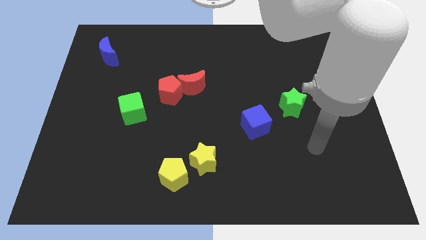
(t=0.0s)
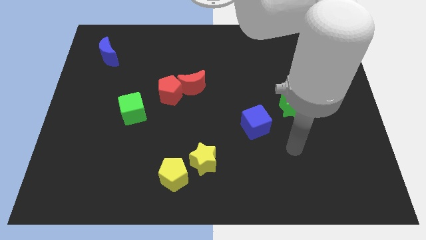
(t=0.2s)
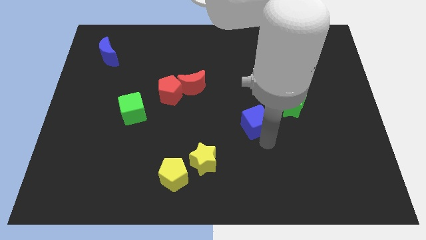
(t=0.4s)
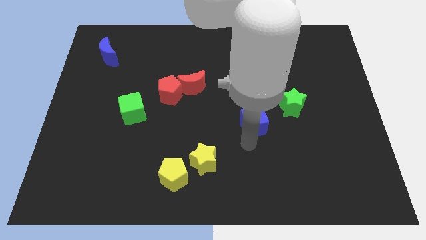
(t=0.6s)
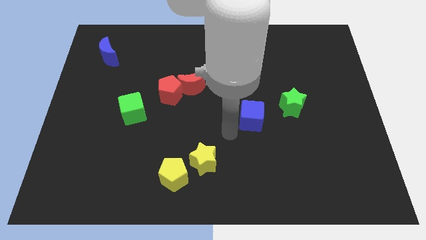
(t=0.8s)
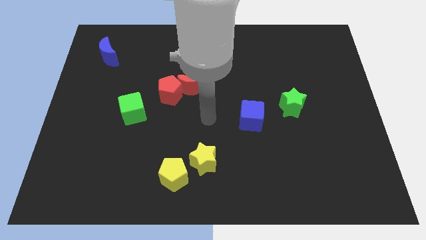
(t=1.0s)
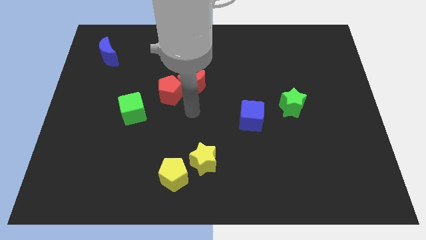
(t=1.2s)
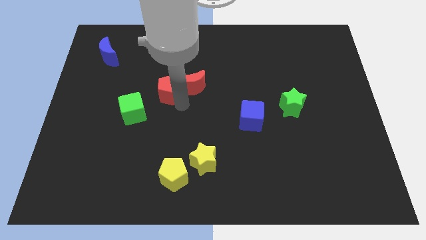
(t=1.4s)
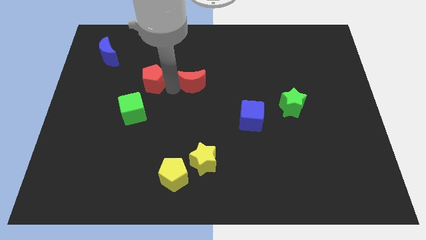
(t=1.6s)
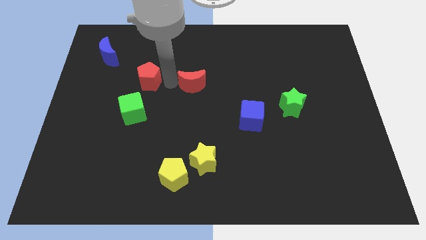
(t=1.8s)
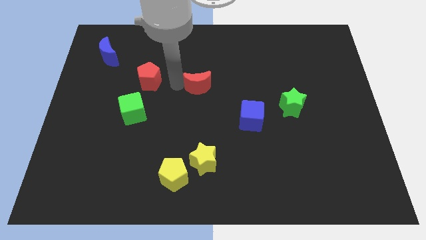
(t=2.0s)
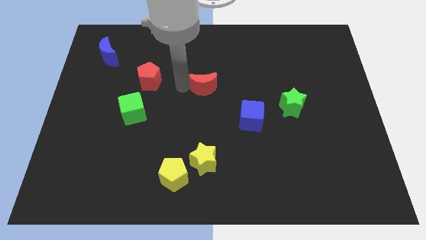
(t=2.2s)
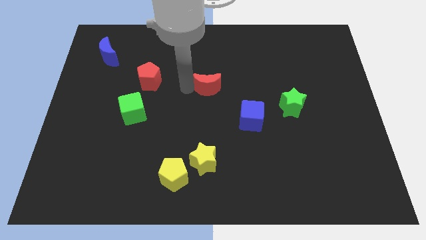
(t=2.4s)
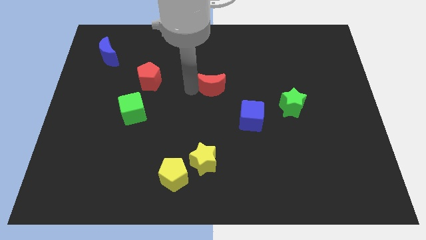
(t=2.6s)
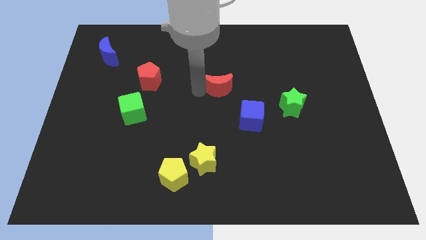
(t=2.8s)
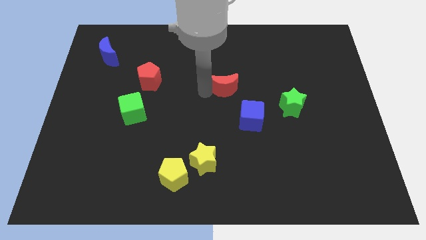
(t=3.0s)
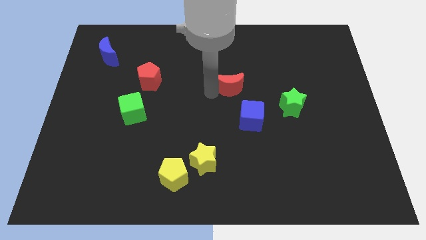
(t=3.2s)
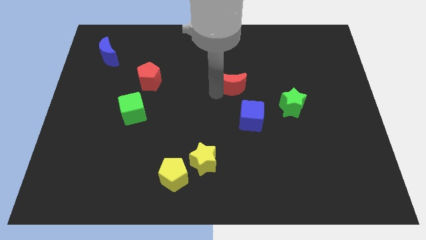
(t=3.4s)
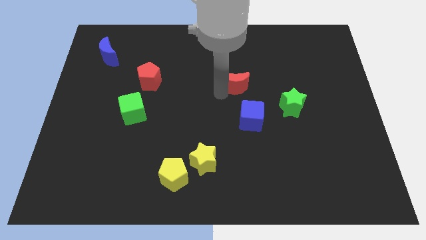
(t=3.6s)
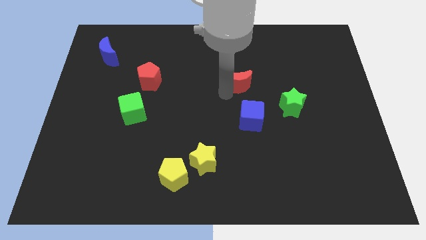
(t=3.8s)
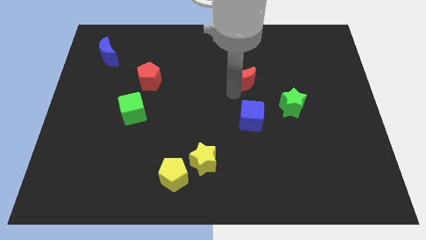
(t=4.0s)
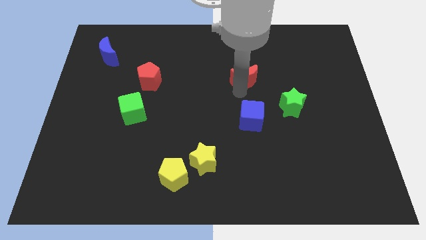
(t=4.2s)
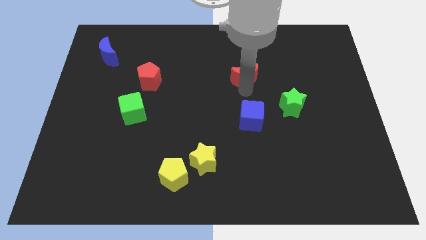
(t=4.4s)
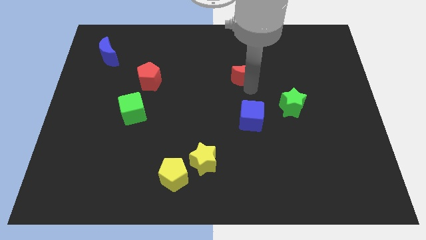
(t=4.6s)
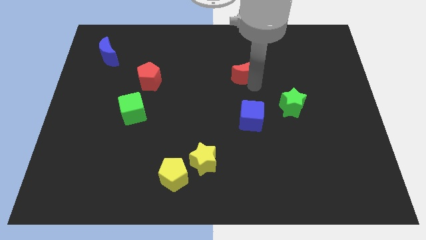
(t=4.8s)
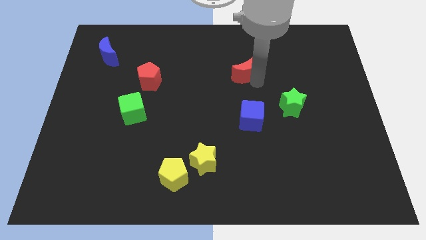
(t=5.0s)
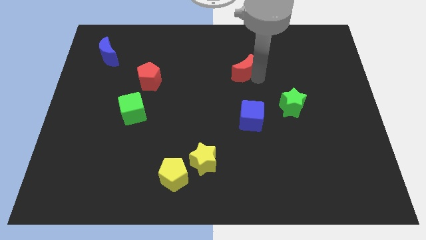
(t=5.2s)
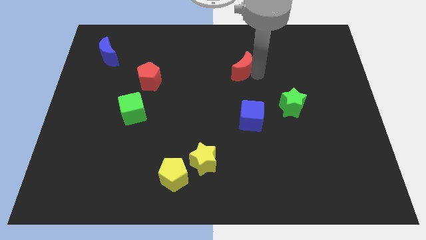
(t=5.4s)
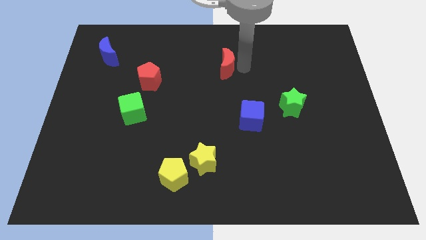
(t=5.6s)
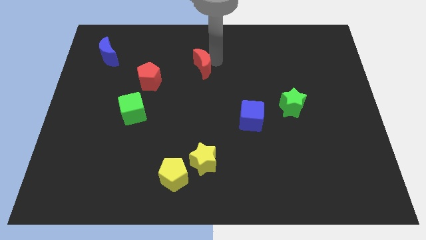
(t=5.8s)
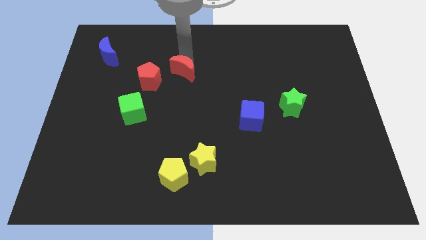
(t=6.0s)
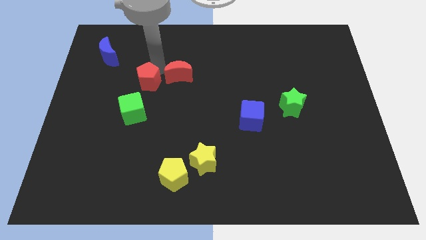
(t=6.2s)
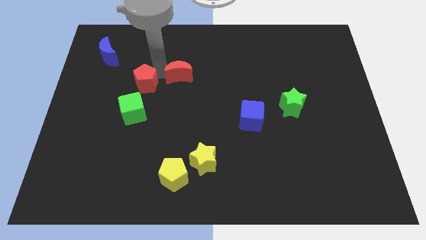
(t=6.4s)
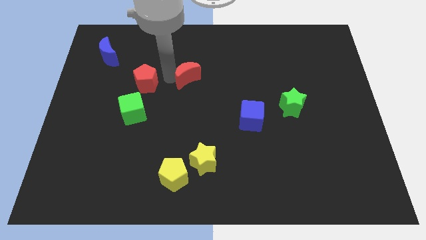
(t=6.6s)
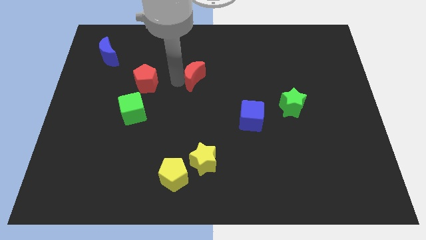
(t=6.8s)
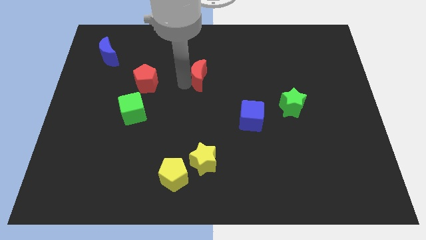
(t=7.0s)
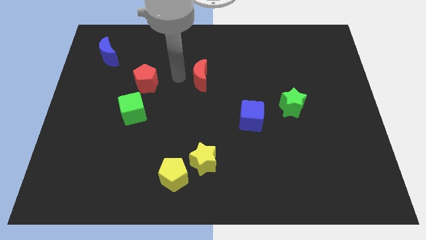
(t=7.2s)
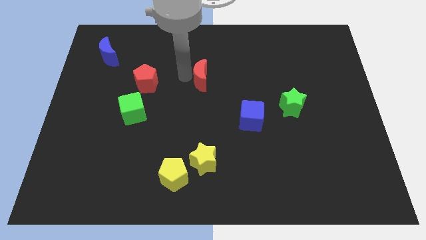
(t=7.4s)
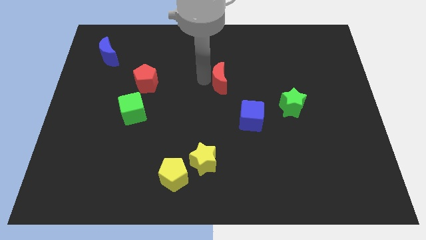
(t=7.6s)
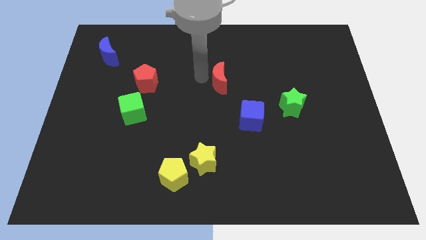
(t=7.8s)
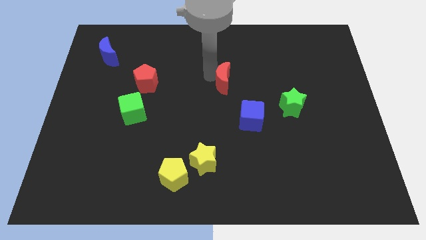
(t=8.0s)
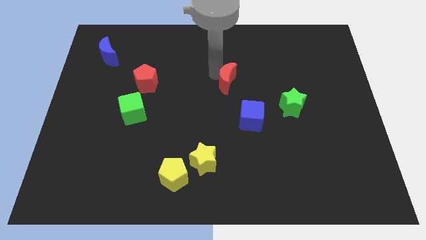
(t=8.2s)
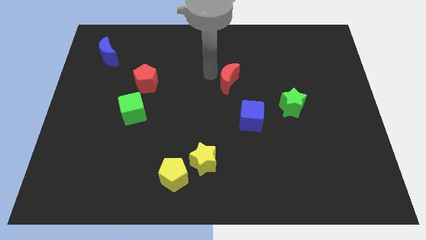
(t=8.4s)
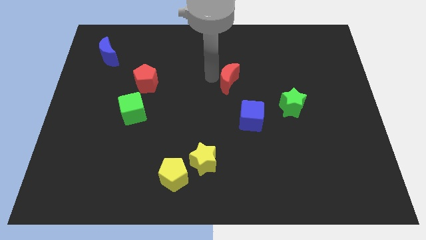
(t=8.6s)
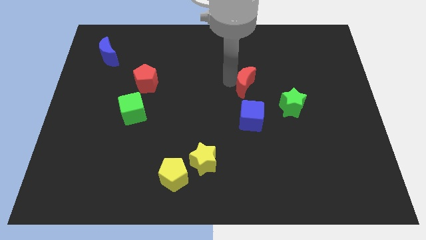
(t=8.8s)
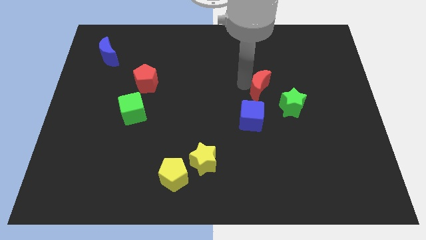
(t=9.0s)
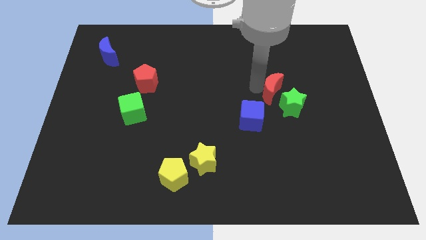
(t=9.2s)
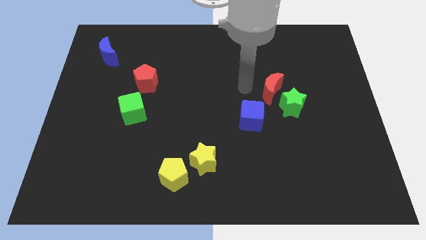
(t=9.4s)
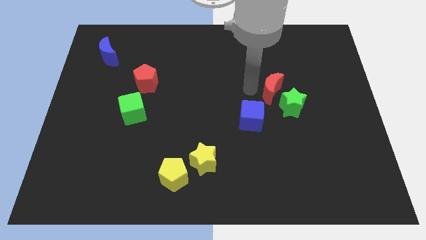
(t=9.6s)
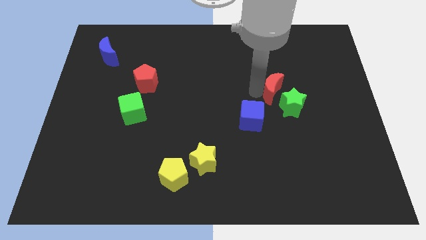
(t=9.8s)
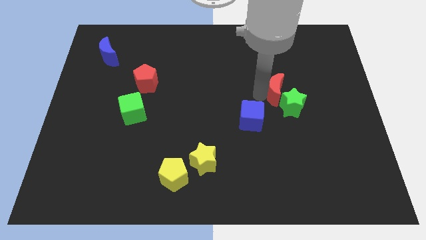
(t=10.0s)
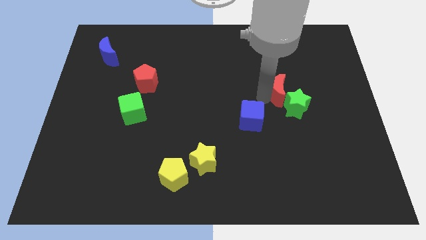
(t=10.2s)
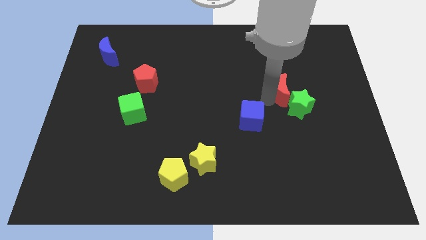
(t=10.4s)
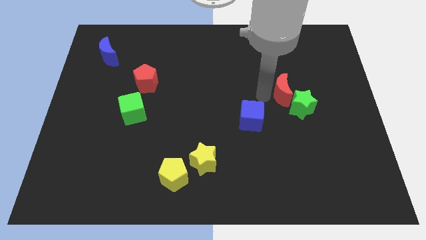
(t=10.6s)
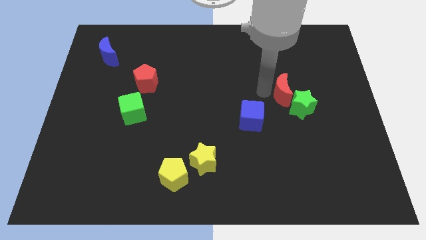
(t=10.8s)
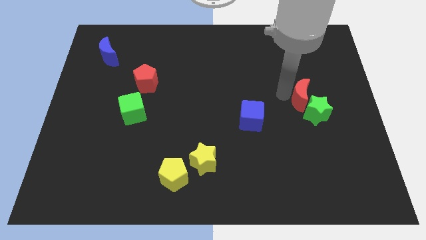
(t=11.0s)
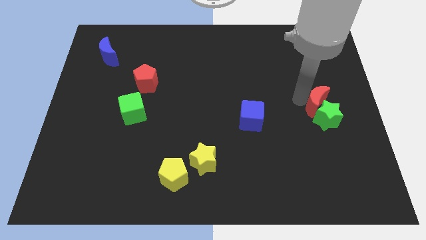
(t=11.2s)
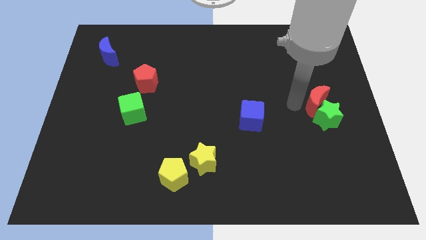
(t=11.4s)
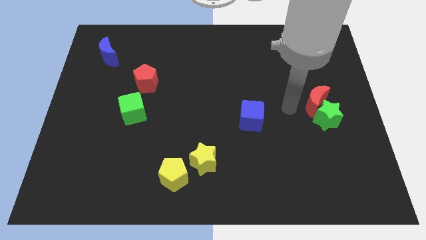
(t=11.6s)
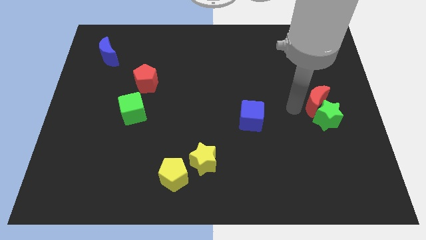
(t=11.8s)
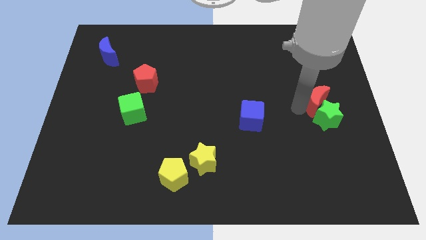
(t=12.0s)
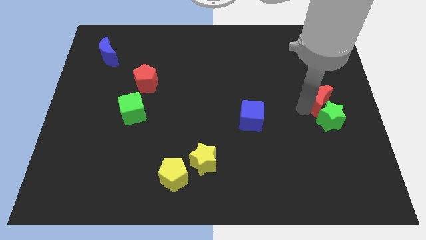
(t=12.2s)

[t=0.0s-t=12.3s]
slide the red moon to the right side of the board
